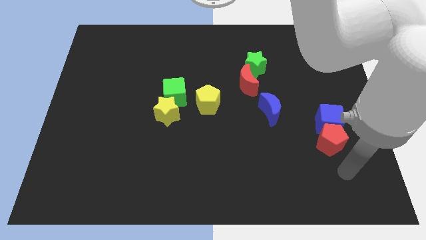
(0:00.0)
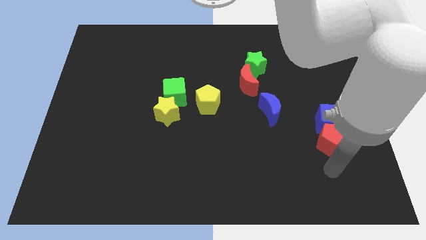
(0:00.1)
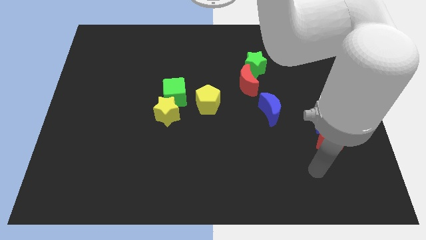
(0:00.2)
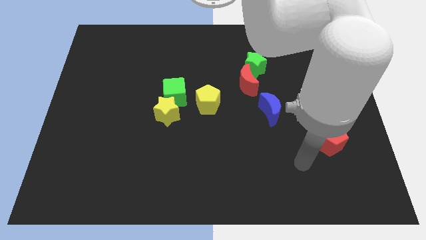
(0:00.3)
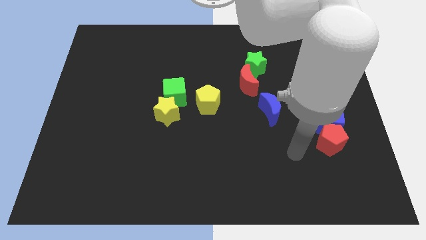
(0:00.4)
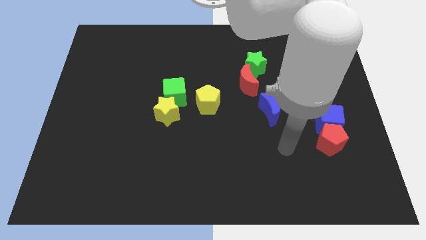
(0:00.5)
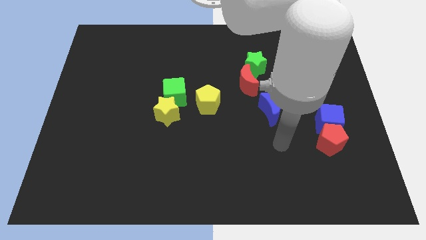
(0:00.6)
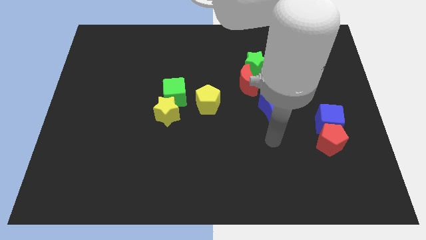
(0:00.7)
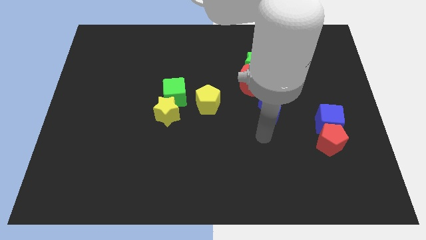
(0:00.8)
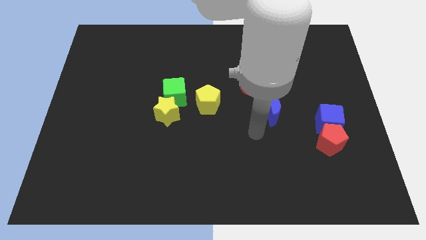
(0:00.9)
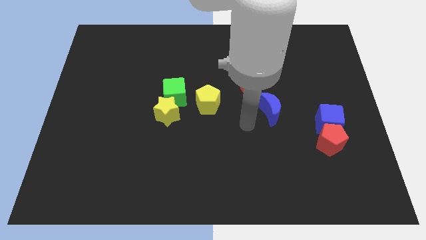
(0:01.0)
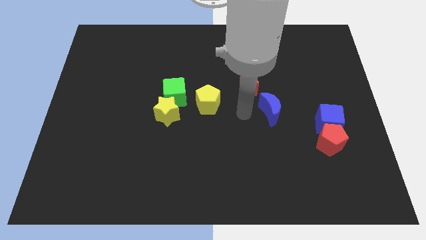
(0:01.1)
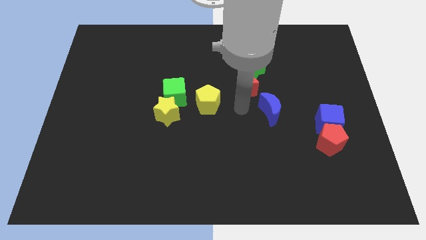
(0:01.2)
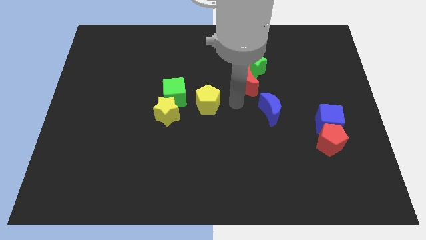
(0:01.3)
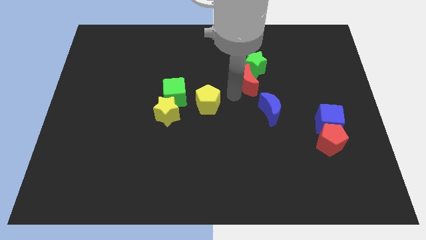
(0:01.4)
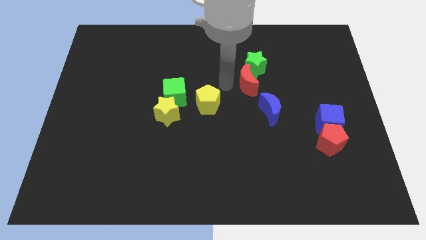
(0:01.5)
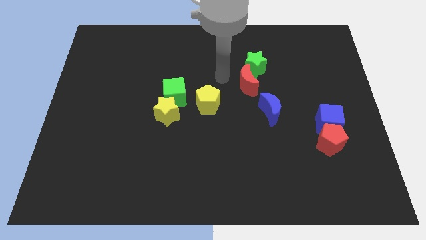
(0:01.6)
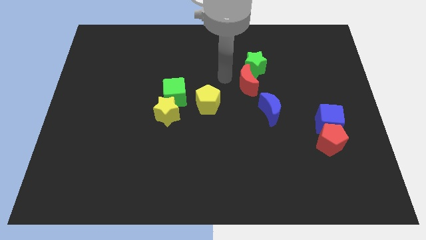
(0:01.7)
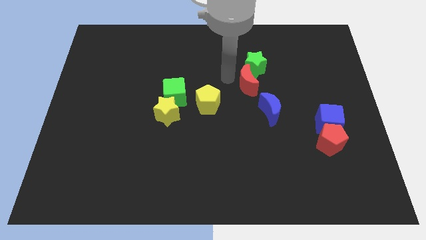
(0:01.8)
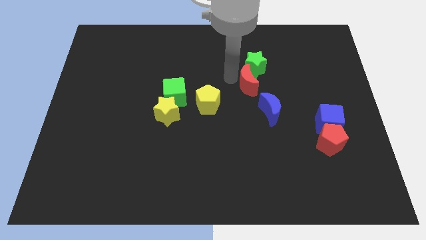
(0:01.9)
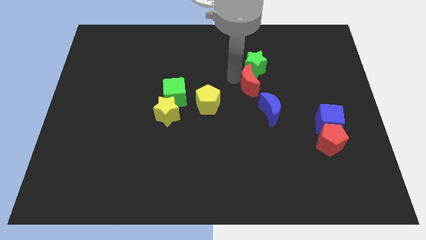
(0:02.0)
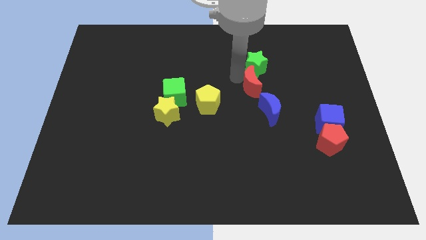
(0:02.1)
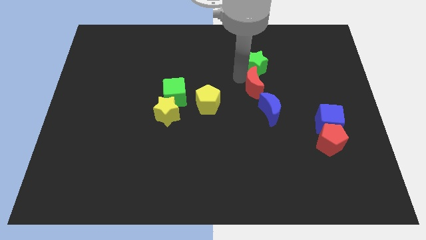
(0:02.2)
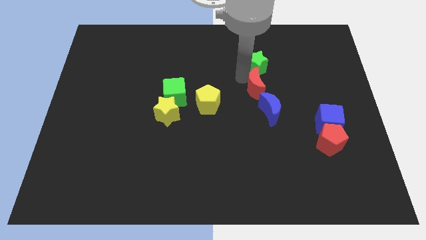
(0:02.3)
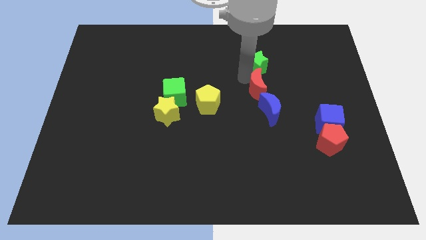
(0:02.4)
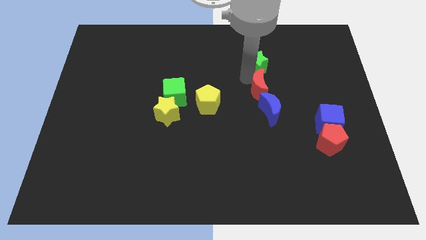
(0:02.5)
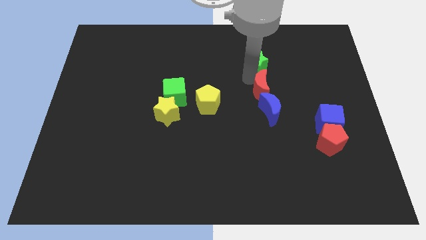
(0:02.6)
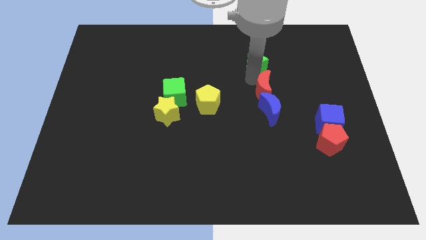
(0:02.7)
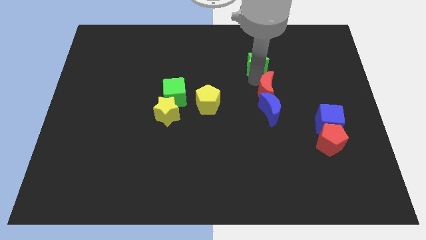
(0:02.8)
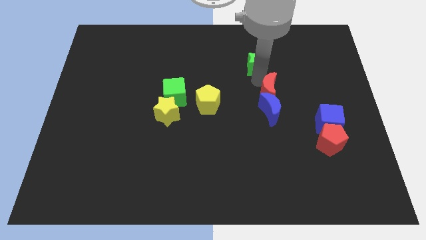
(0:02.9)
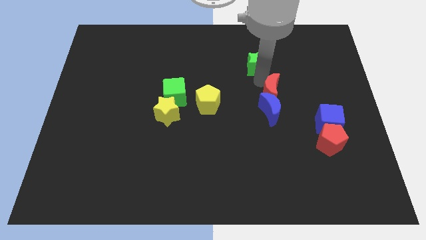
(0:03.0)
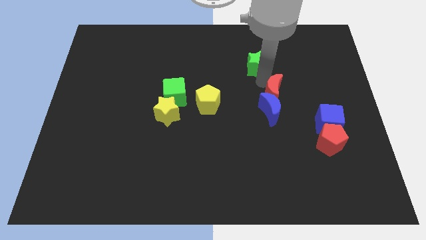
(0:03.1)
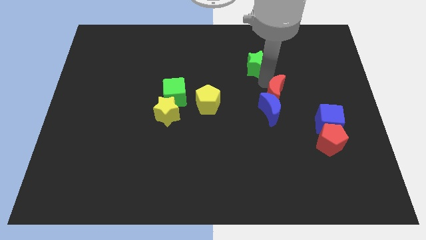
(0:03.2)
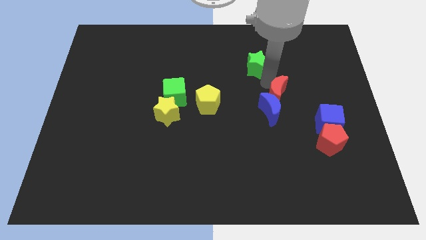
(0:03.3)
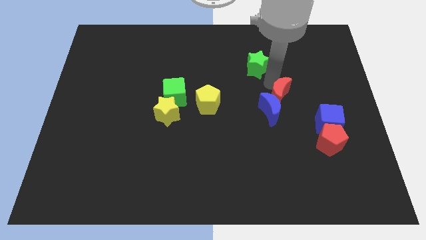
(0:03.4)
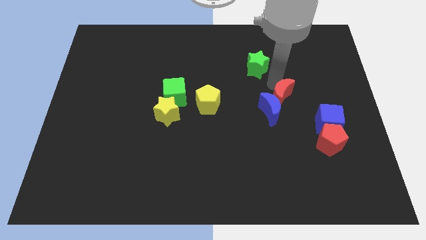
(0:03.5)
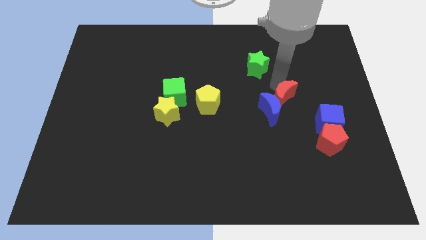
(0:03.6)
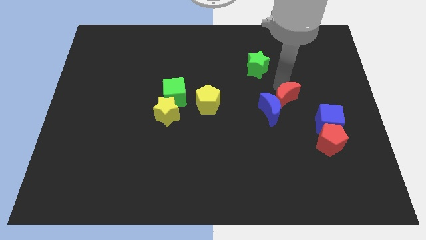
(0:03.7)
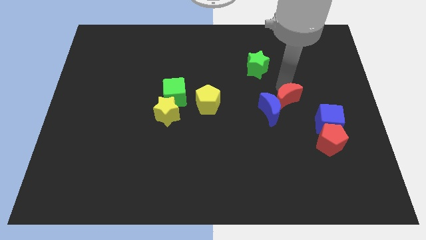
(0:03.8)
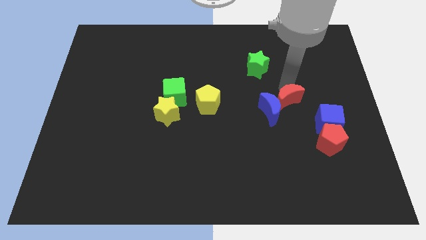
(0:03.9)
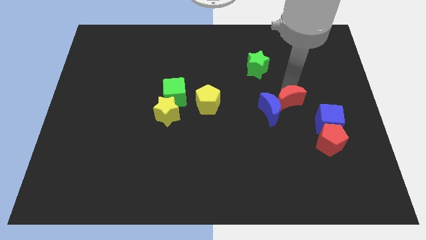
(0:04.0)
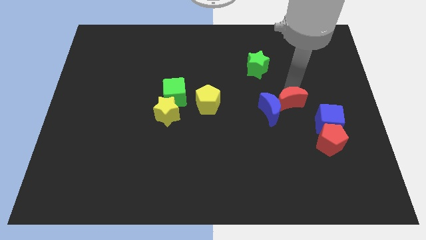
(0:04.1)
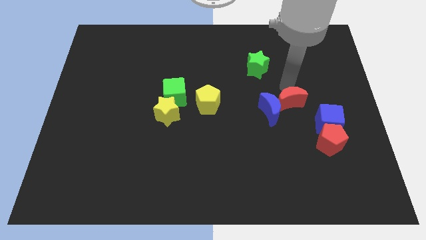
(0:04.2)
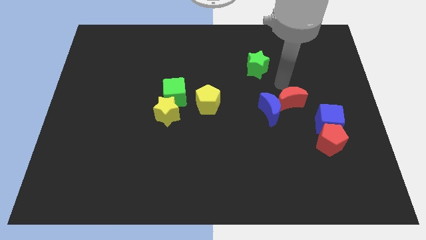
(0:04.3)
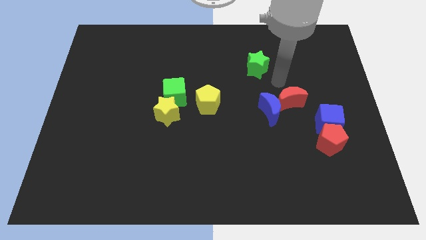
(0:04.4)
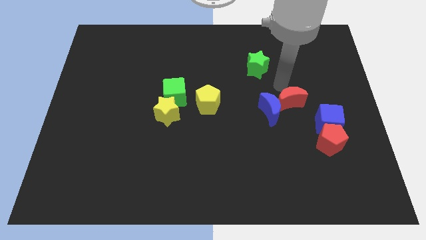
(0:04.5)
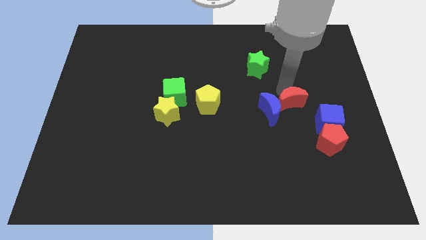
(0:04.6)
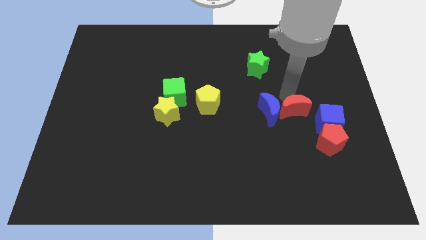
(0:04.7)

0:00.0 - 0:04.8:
move the red moon diagonally up and to the left of the red pentagon

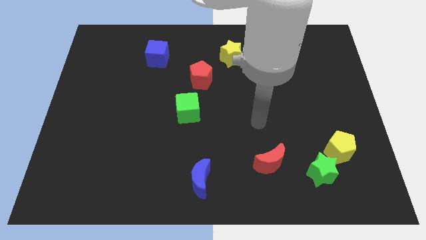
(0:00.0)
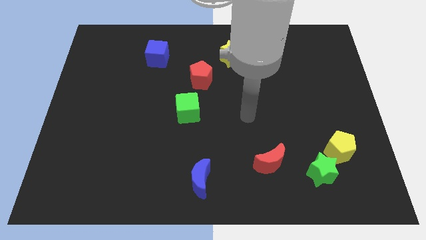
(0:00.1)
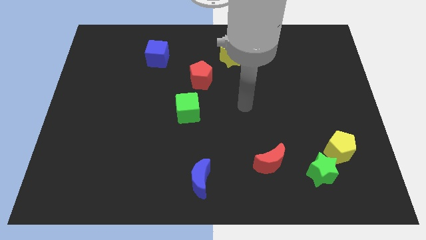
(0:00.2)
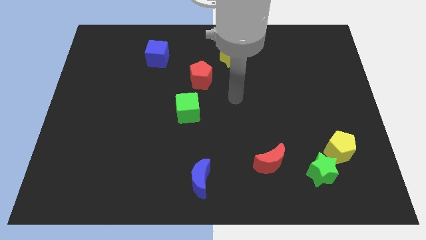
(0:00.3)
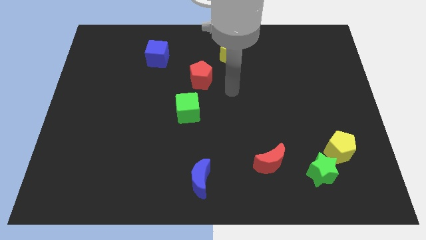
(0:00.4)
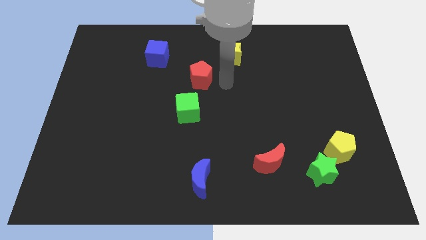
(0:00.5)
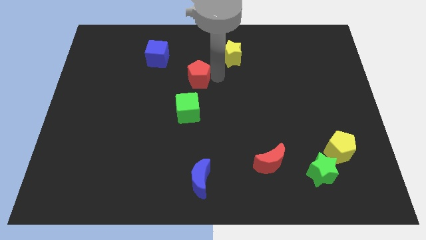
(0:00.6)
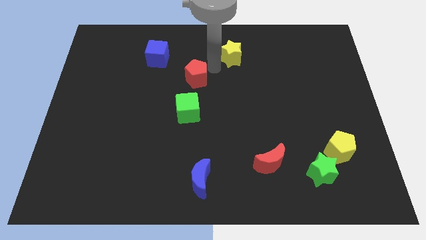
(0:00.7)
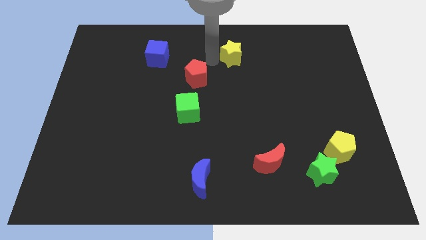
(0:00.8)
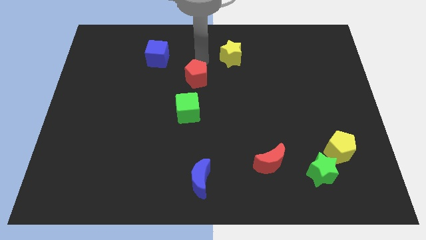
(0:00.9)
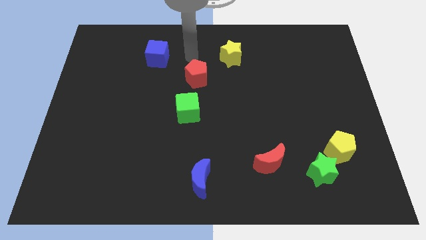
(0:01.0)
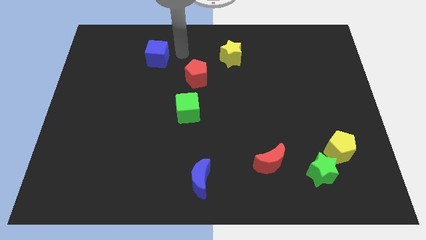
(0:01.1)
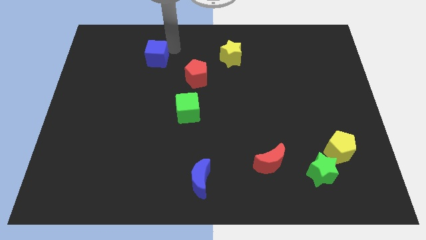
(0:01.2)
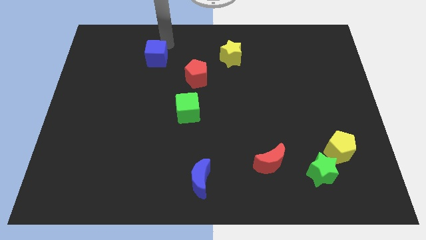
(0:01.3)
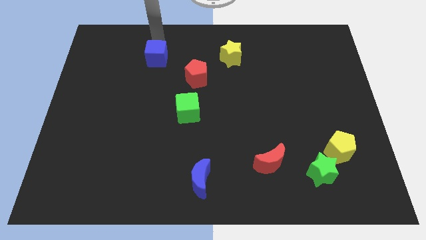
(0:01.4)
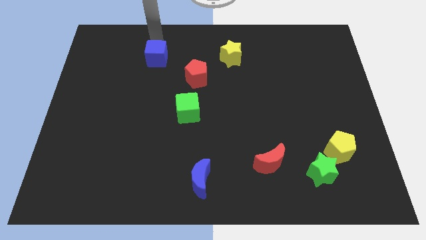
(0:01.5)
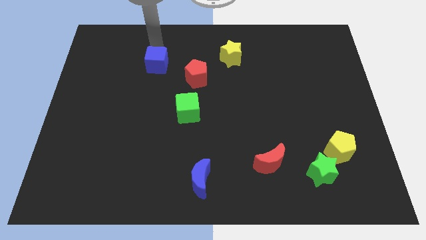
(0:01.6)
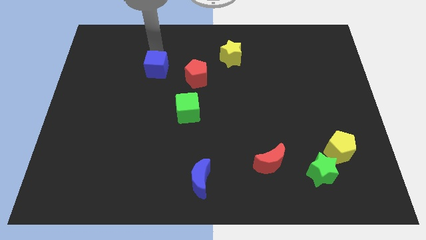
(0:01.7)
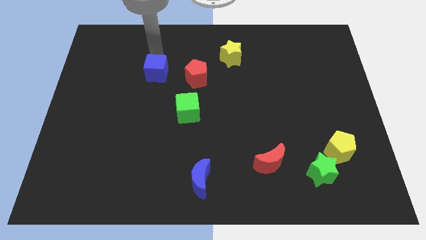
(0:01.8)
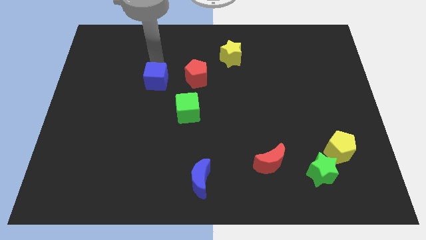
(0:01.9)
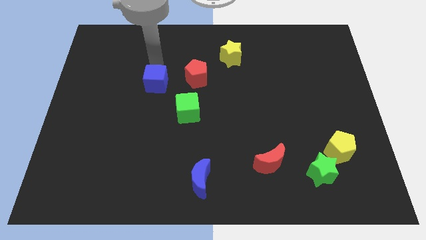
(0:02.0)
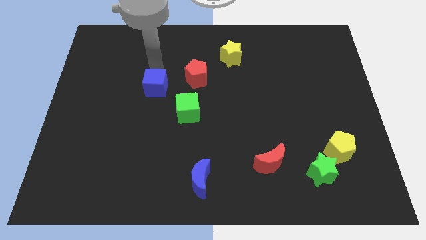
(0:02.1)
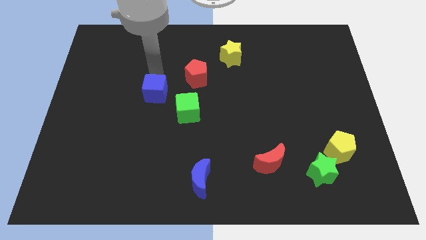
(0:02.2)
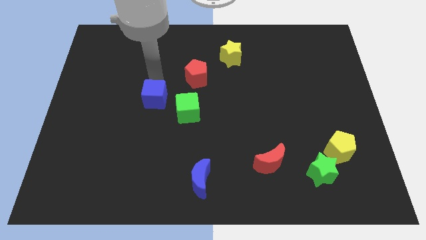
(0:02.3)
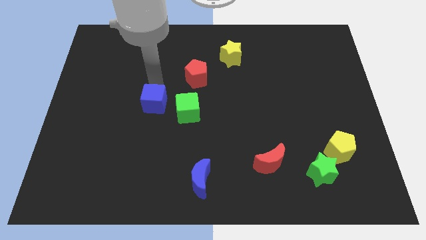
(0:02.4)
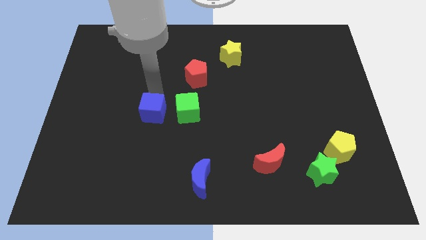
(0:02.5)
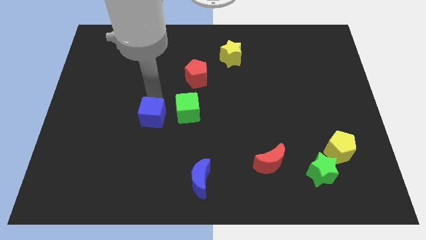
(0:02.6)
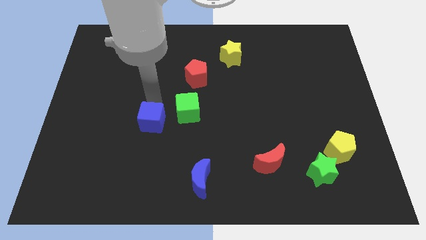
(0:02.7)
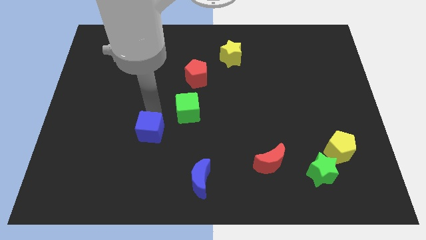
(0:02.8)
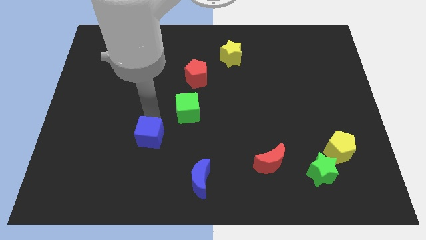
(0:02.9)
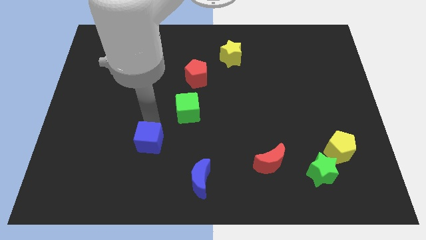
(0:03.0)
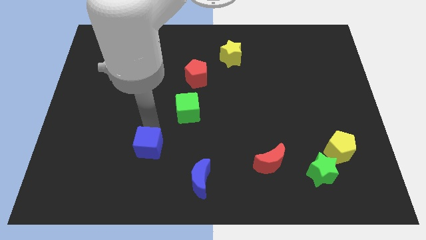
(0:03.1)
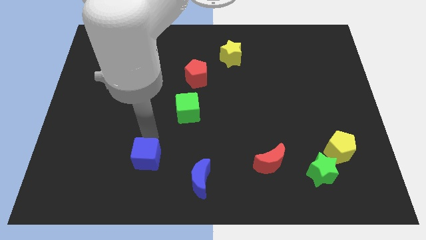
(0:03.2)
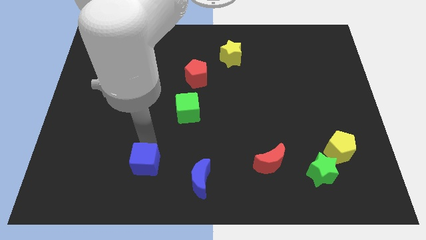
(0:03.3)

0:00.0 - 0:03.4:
move the blue cube to the left side of the blue moon
